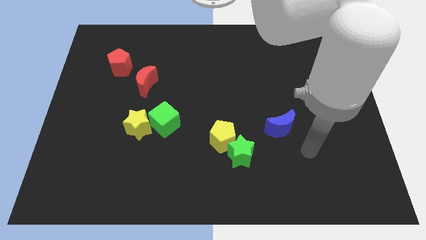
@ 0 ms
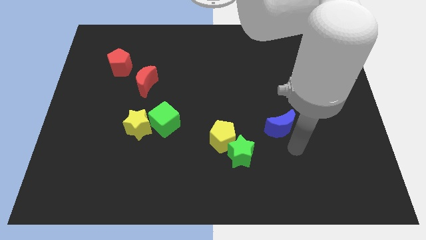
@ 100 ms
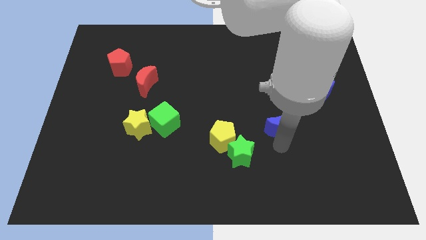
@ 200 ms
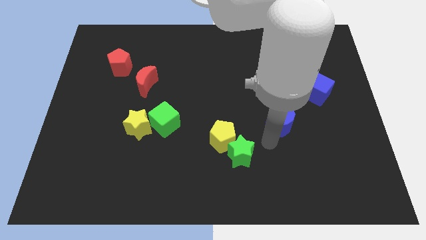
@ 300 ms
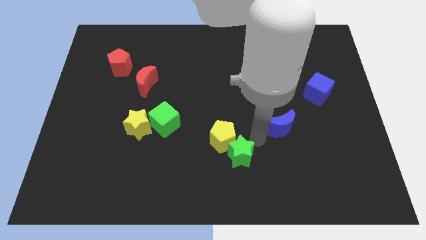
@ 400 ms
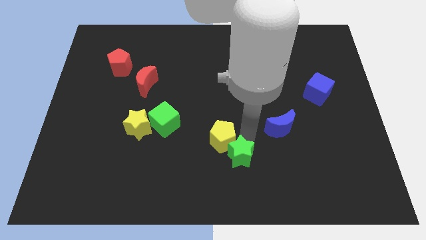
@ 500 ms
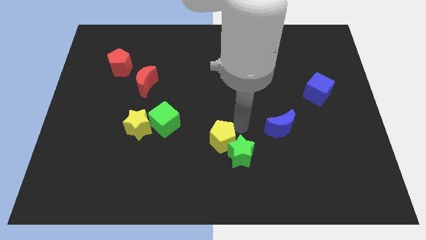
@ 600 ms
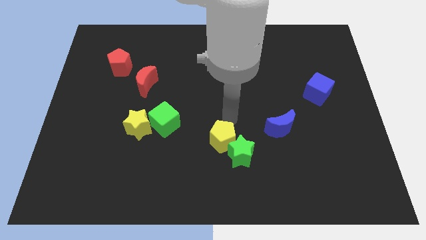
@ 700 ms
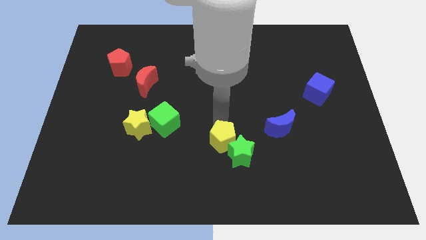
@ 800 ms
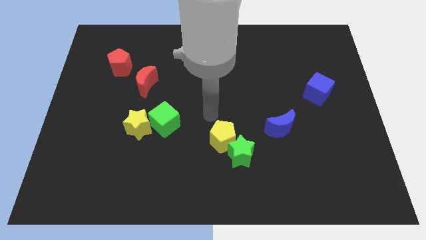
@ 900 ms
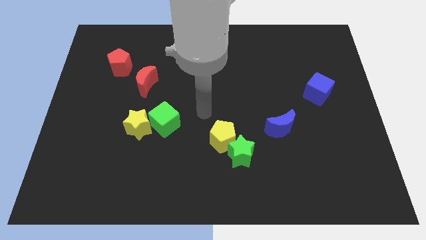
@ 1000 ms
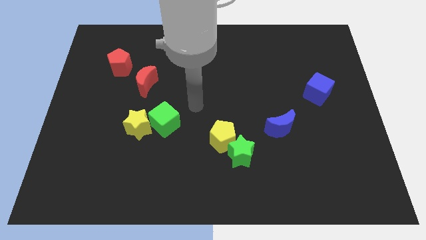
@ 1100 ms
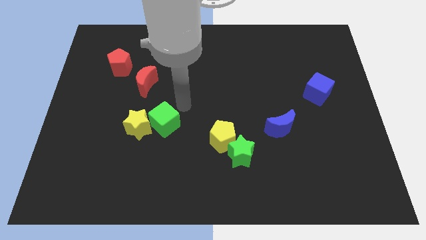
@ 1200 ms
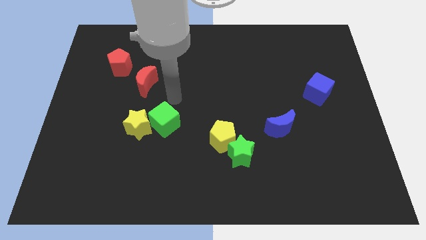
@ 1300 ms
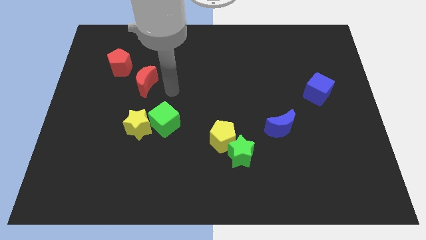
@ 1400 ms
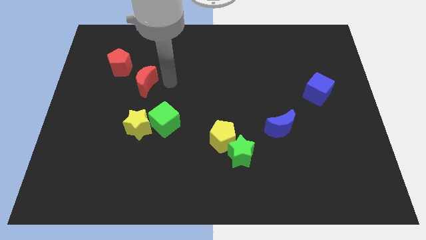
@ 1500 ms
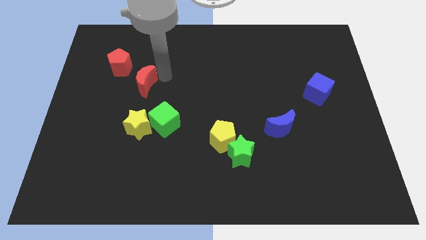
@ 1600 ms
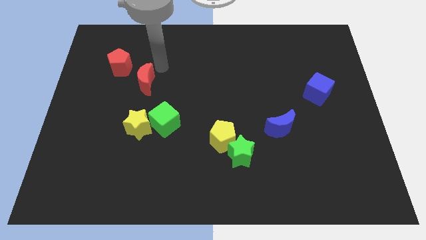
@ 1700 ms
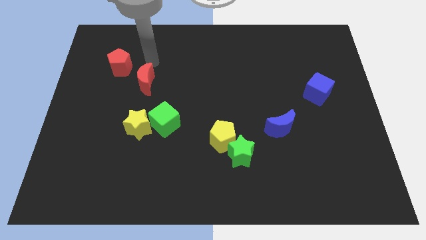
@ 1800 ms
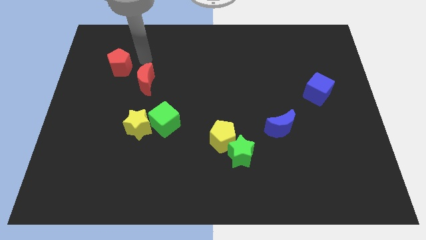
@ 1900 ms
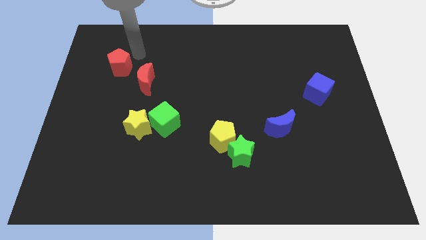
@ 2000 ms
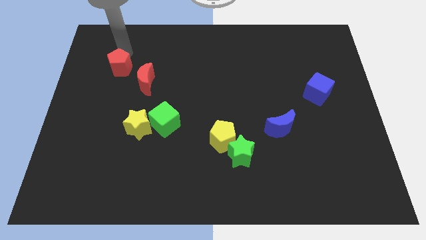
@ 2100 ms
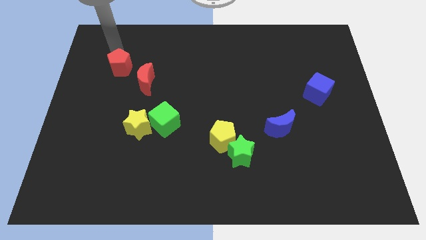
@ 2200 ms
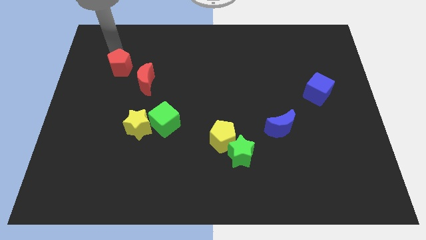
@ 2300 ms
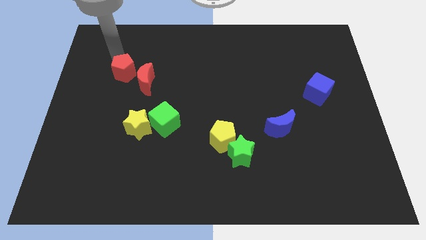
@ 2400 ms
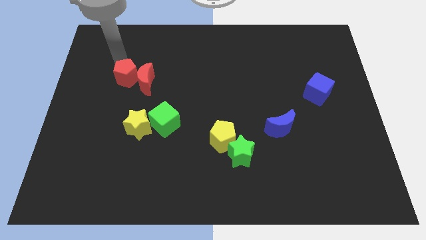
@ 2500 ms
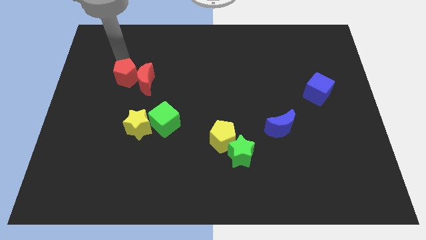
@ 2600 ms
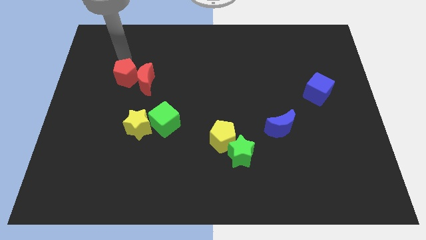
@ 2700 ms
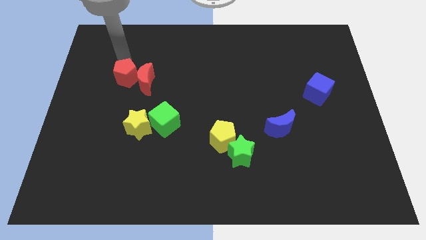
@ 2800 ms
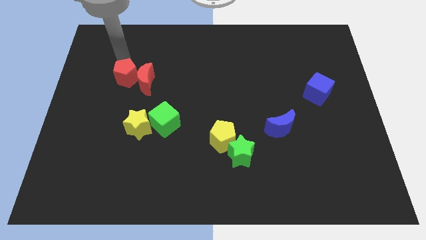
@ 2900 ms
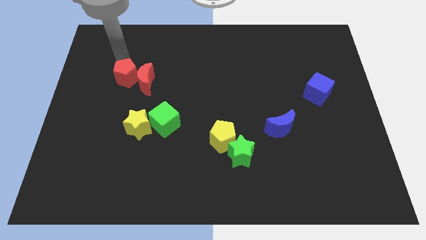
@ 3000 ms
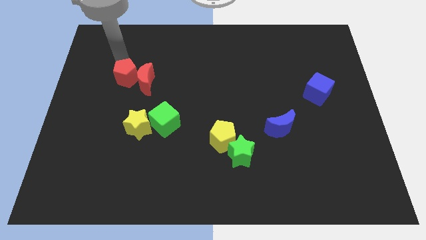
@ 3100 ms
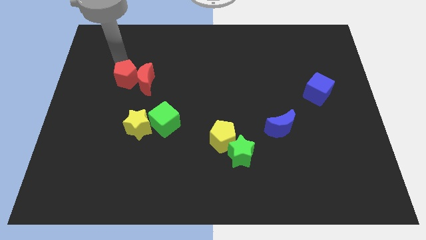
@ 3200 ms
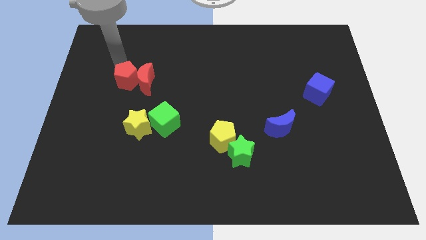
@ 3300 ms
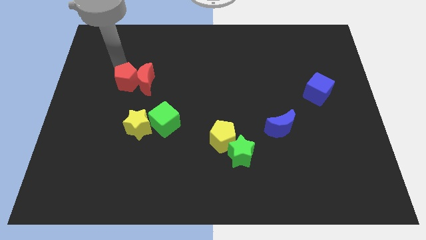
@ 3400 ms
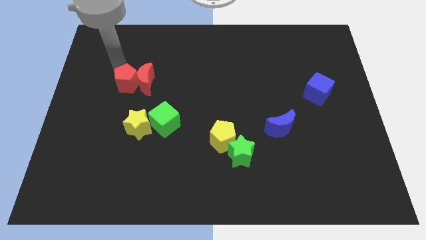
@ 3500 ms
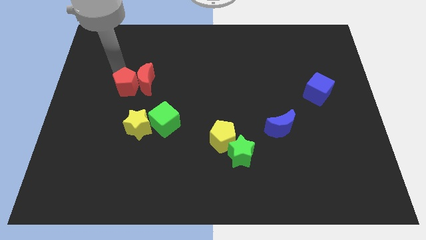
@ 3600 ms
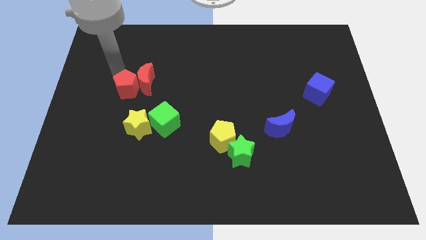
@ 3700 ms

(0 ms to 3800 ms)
slide the red pentagon diagonally downwards and right somewhat

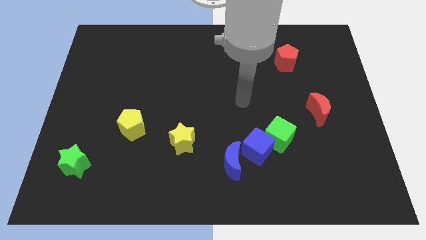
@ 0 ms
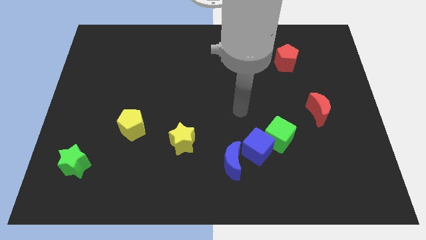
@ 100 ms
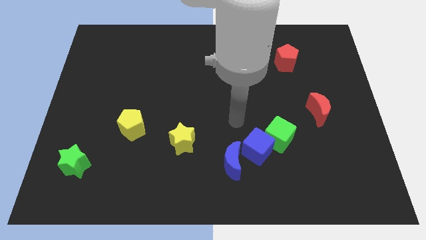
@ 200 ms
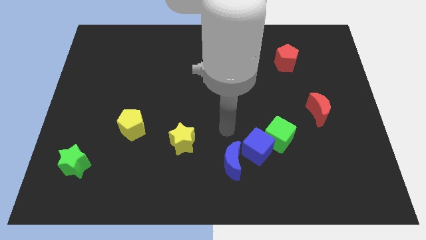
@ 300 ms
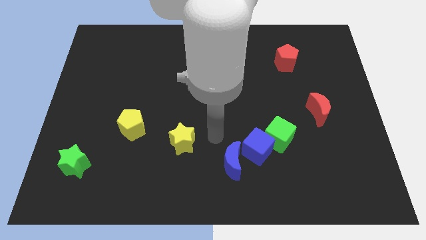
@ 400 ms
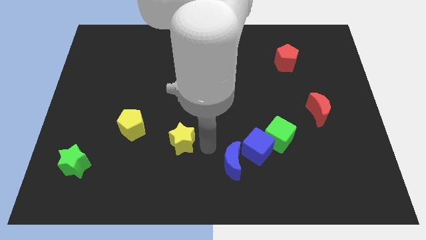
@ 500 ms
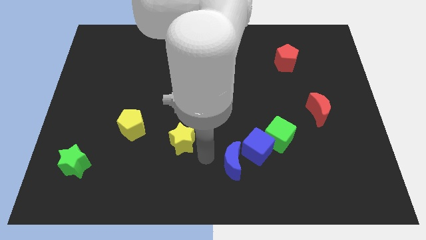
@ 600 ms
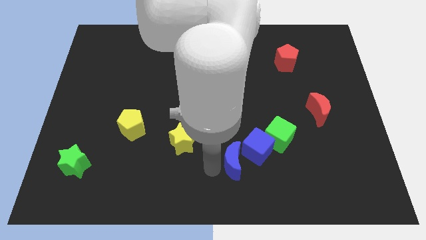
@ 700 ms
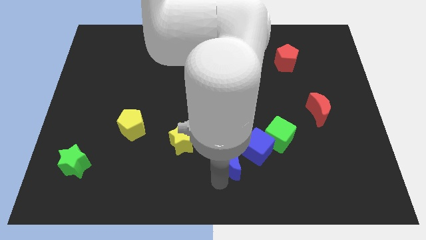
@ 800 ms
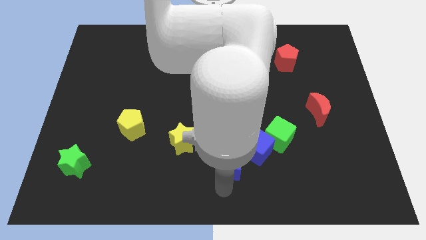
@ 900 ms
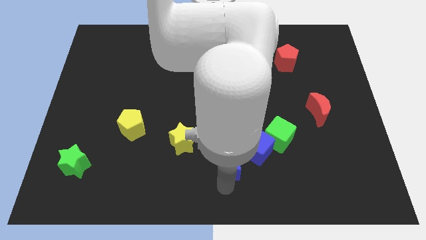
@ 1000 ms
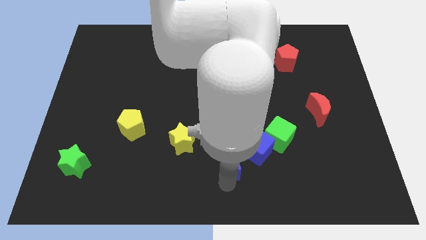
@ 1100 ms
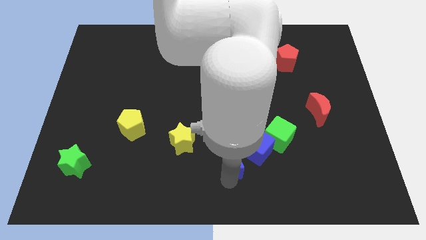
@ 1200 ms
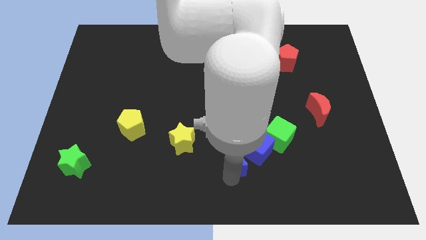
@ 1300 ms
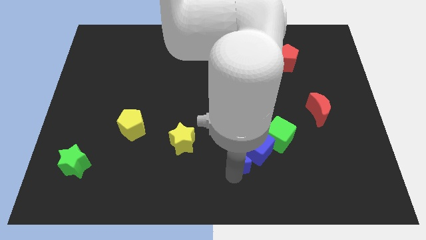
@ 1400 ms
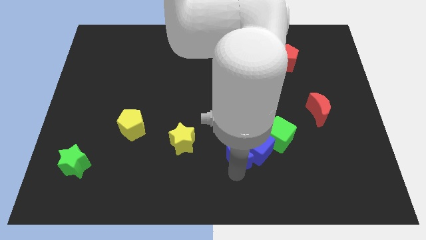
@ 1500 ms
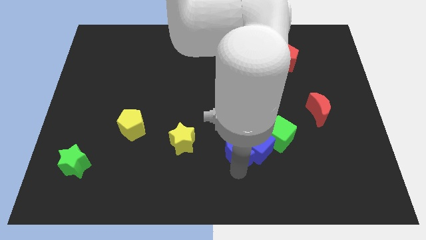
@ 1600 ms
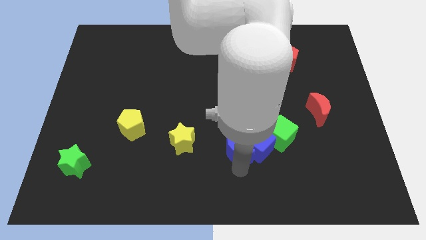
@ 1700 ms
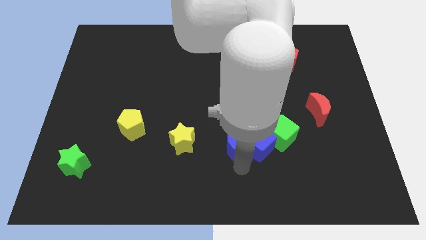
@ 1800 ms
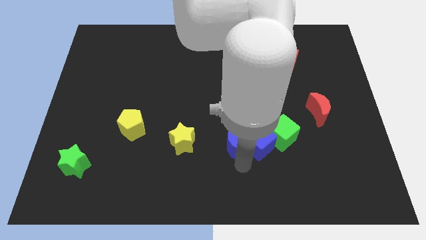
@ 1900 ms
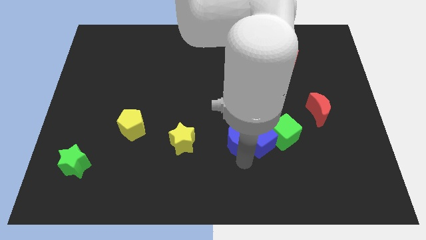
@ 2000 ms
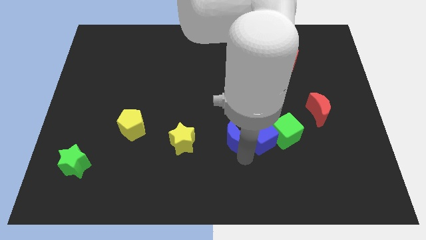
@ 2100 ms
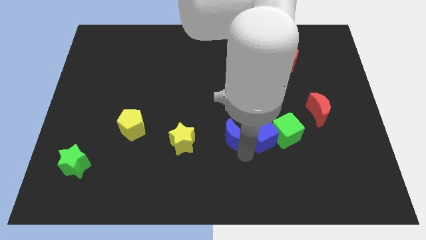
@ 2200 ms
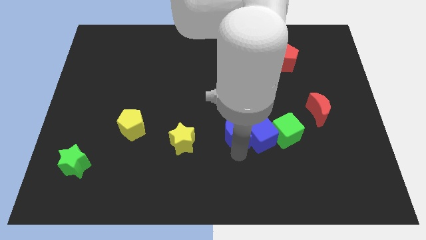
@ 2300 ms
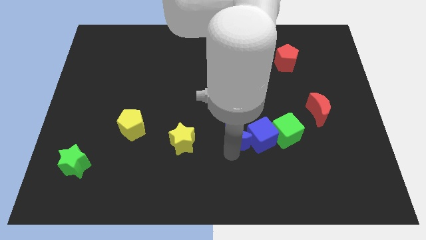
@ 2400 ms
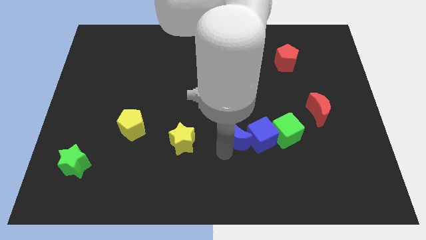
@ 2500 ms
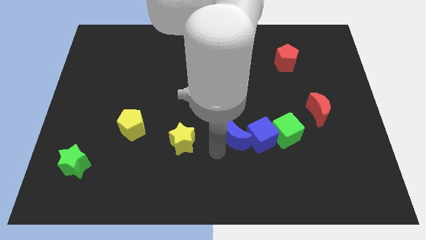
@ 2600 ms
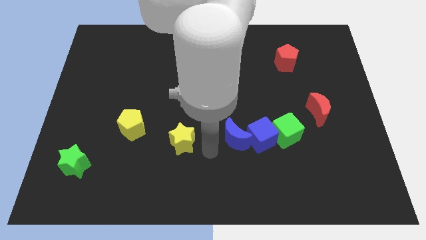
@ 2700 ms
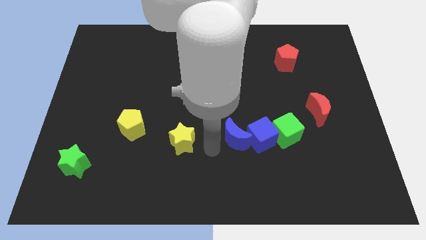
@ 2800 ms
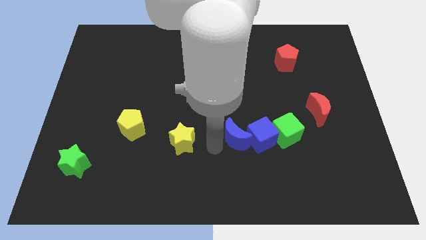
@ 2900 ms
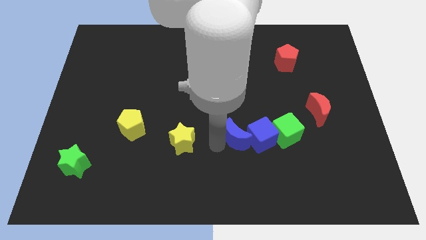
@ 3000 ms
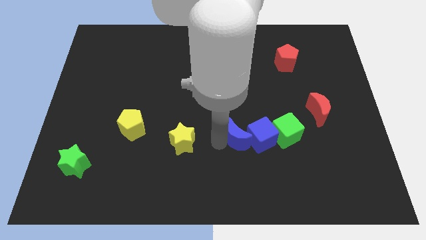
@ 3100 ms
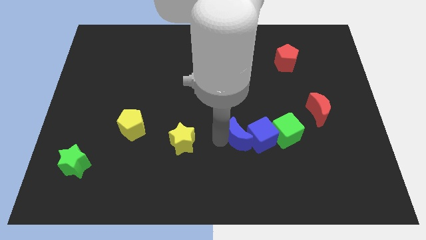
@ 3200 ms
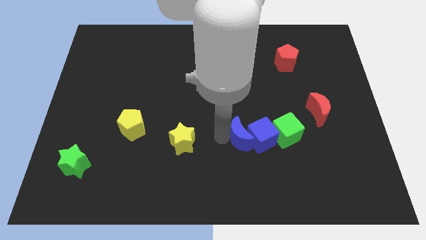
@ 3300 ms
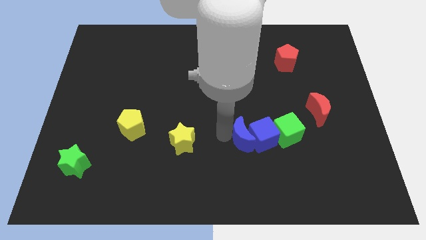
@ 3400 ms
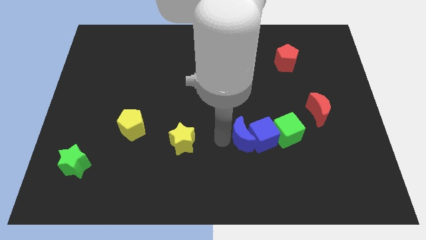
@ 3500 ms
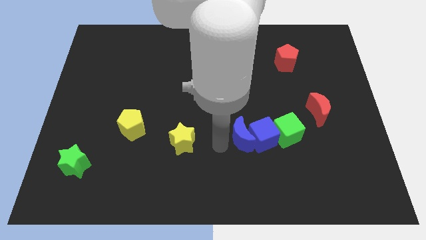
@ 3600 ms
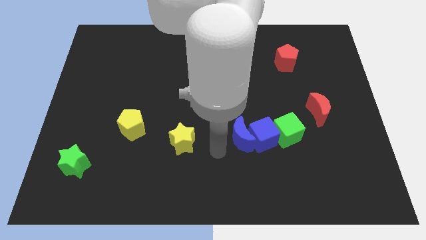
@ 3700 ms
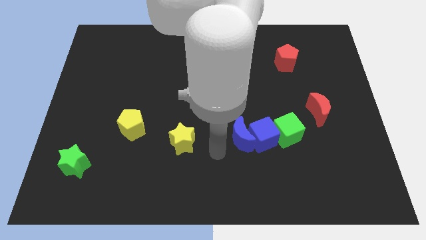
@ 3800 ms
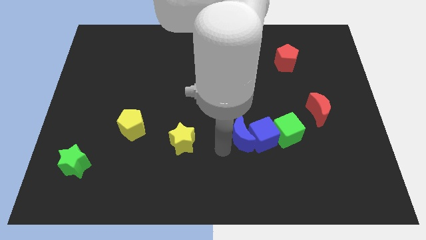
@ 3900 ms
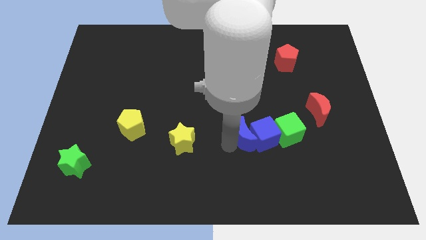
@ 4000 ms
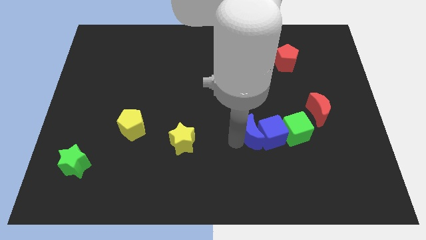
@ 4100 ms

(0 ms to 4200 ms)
move the blue moon diagonally upwards and to the right somewhat

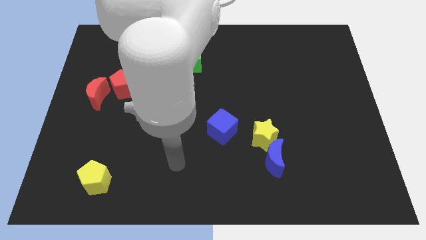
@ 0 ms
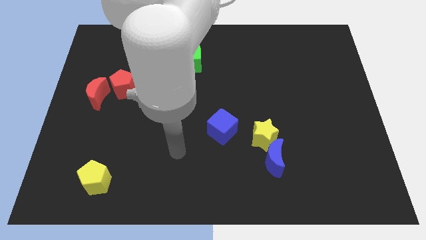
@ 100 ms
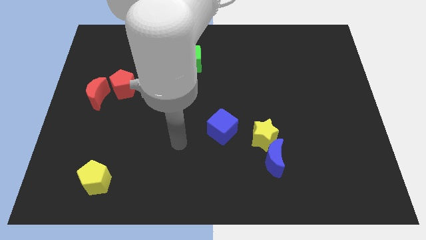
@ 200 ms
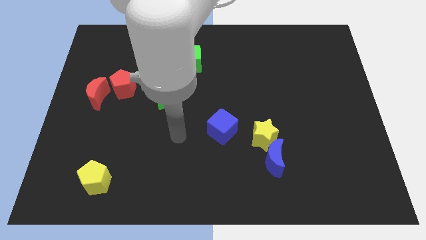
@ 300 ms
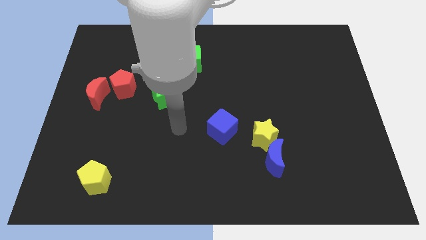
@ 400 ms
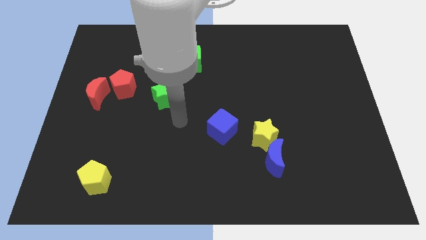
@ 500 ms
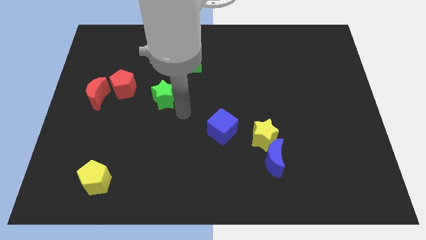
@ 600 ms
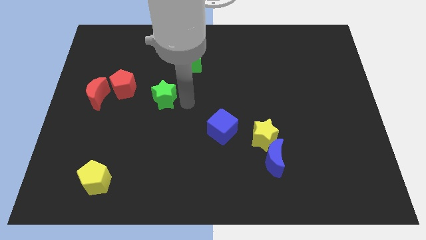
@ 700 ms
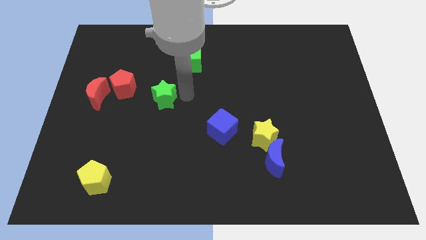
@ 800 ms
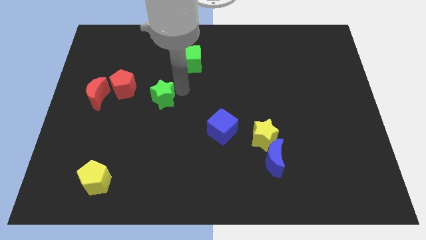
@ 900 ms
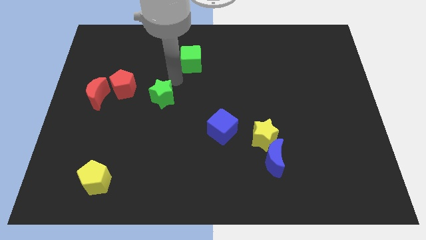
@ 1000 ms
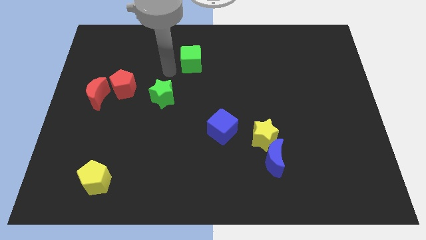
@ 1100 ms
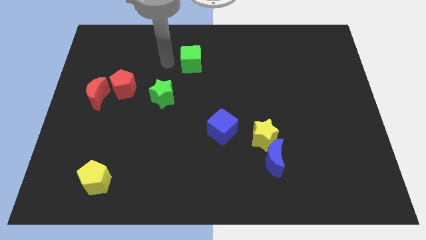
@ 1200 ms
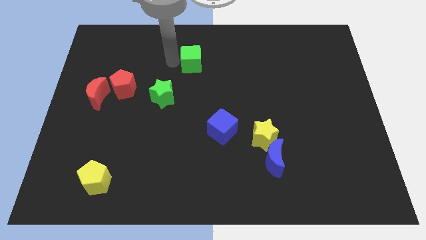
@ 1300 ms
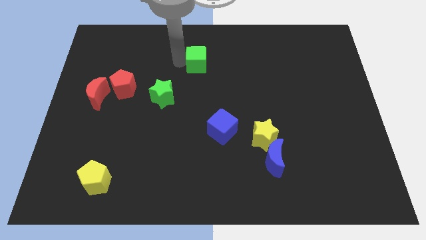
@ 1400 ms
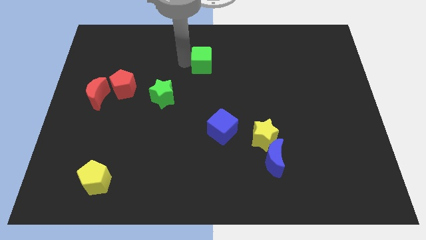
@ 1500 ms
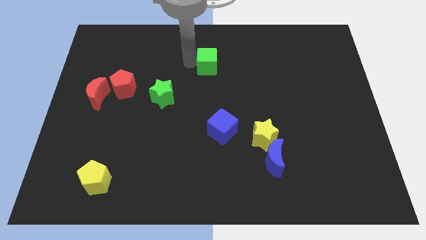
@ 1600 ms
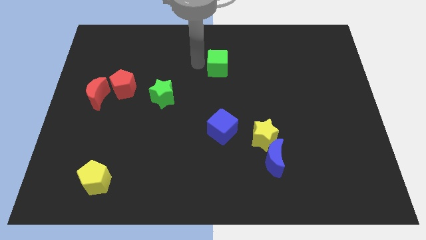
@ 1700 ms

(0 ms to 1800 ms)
slide the green cube to the right a little
